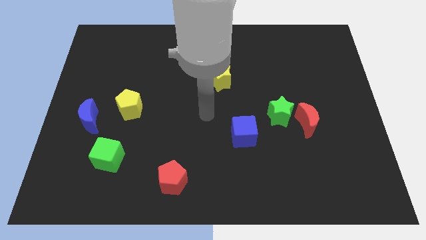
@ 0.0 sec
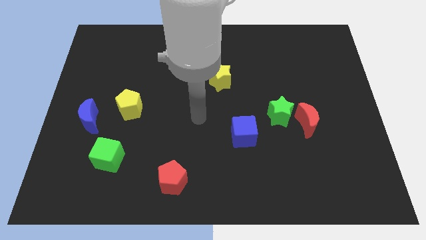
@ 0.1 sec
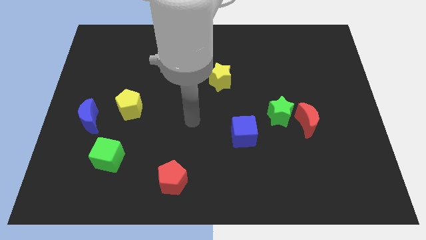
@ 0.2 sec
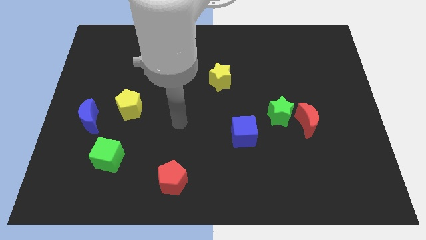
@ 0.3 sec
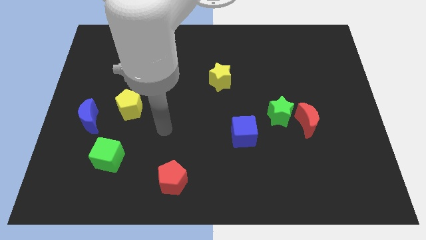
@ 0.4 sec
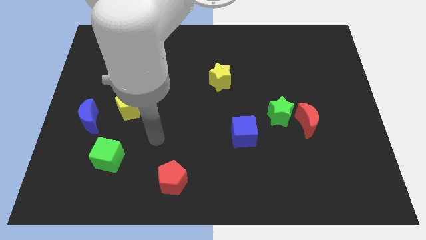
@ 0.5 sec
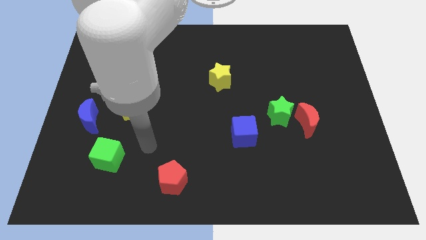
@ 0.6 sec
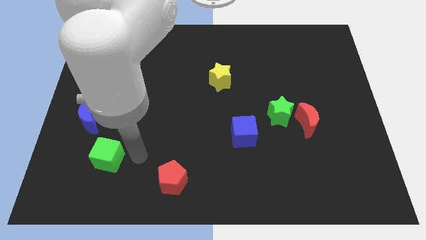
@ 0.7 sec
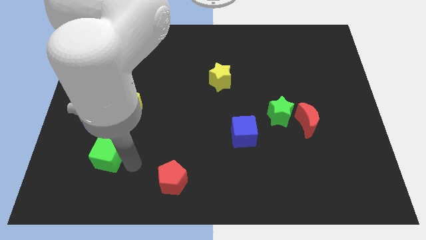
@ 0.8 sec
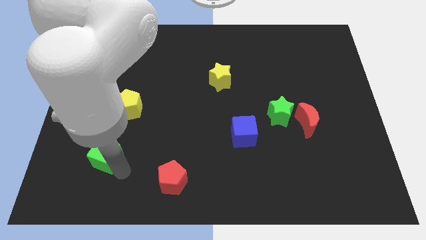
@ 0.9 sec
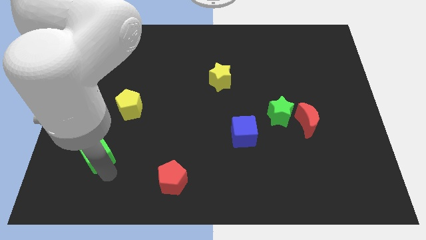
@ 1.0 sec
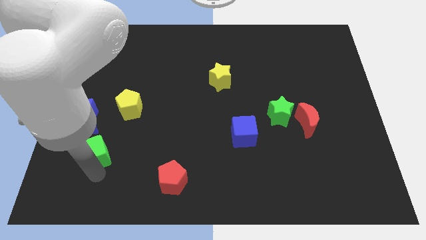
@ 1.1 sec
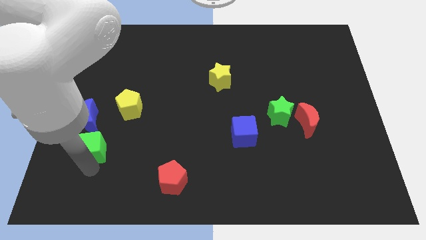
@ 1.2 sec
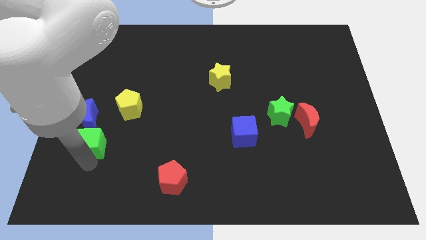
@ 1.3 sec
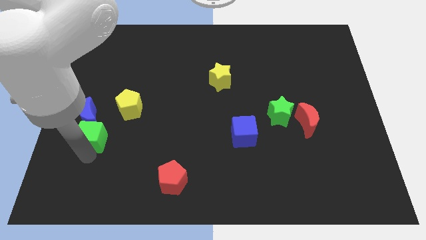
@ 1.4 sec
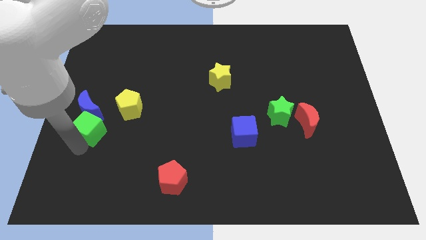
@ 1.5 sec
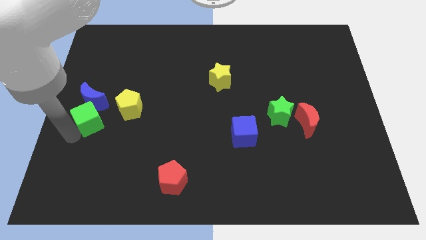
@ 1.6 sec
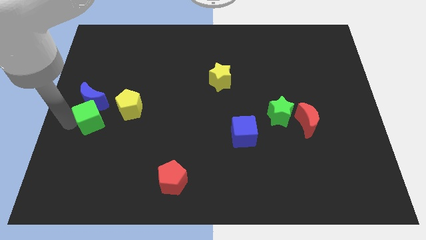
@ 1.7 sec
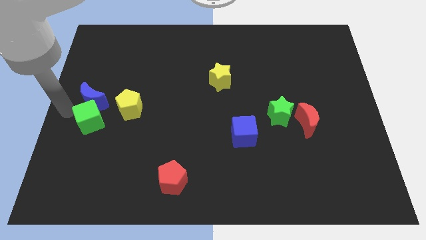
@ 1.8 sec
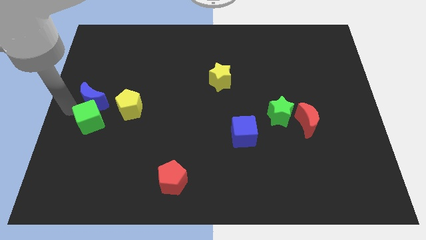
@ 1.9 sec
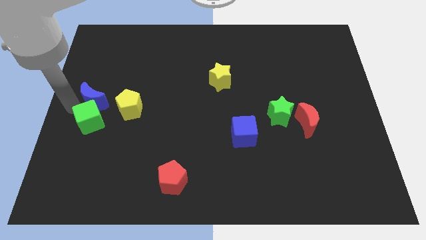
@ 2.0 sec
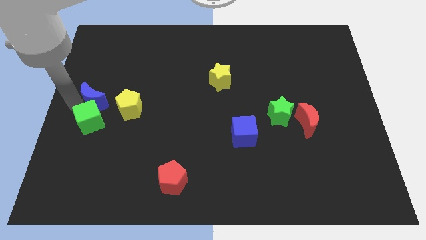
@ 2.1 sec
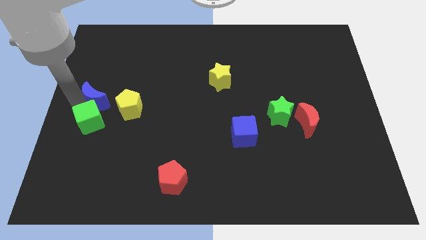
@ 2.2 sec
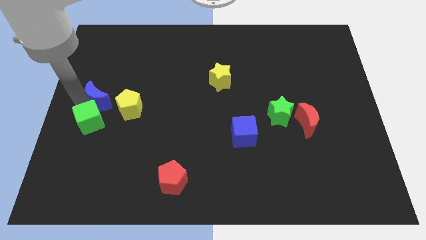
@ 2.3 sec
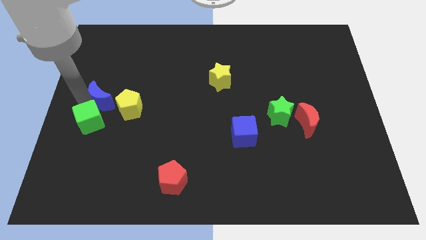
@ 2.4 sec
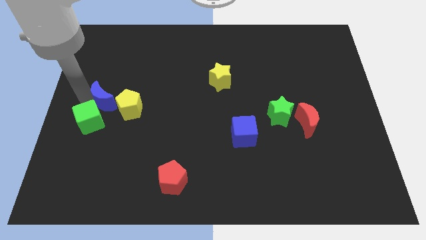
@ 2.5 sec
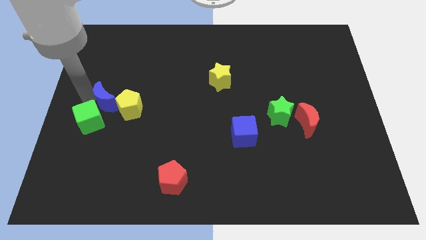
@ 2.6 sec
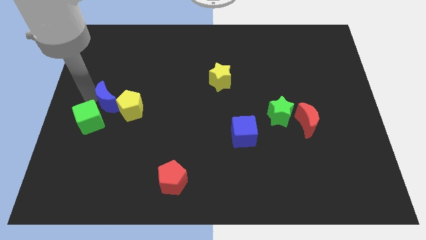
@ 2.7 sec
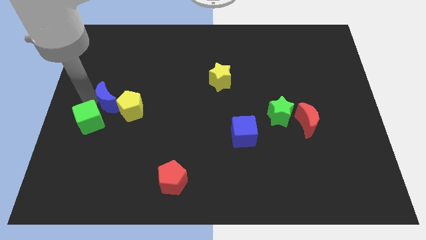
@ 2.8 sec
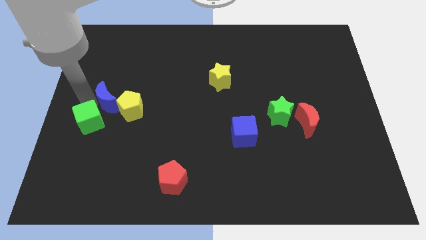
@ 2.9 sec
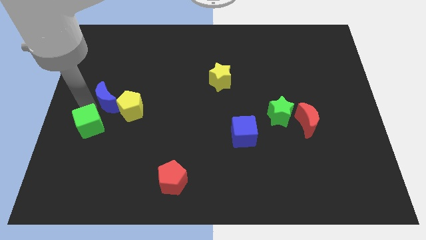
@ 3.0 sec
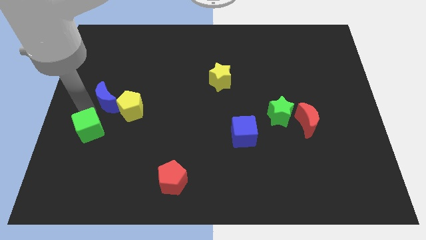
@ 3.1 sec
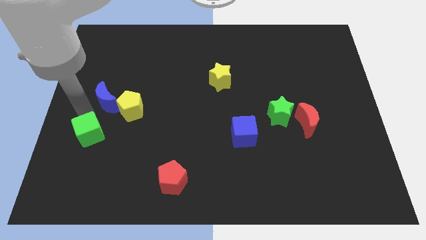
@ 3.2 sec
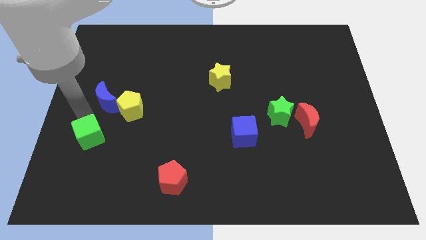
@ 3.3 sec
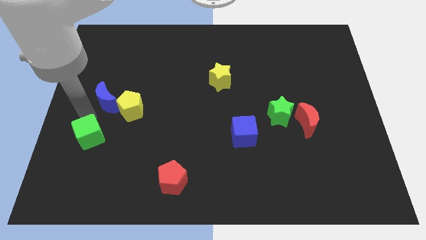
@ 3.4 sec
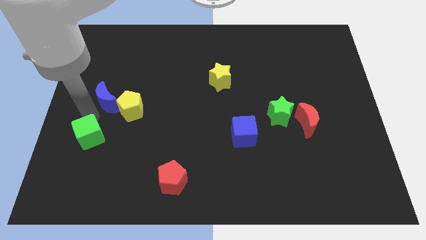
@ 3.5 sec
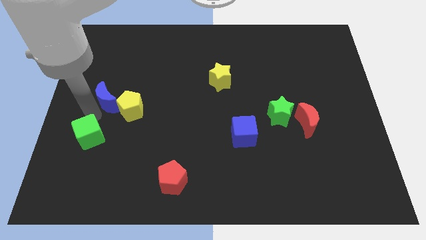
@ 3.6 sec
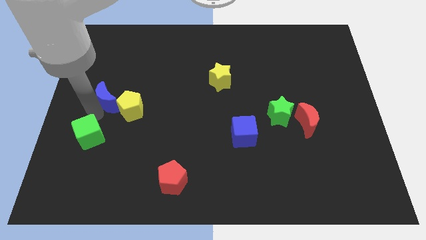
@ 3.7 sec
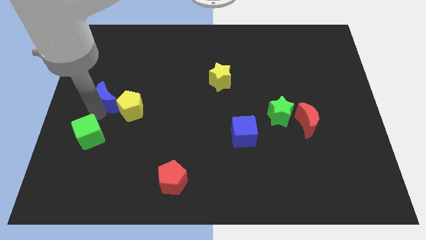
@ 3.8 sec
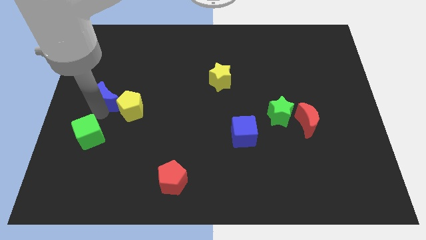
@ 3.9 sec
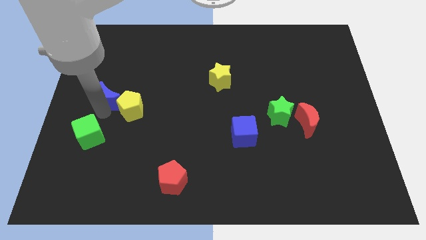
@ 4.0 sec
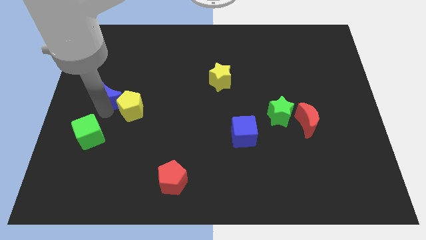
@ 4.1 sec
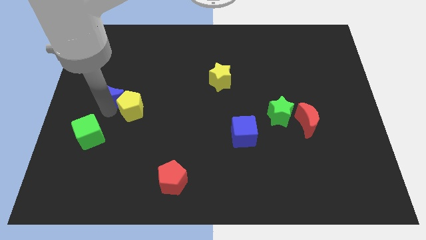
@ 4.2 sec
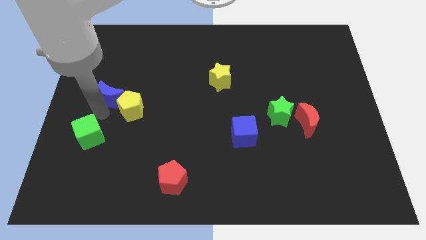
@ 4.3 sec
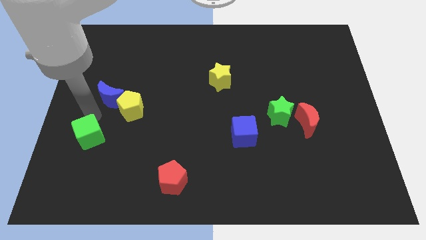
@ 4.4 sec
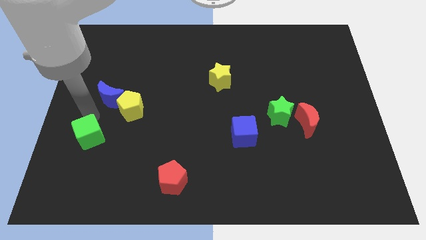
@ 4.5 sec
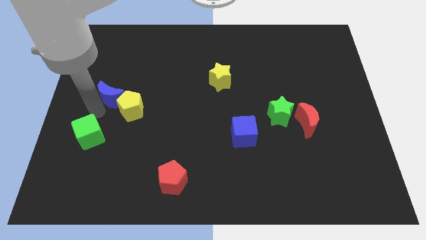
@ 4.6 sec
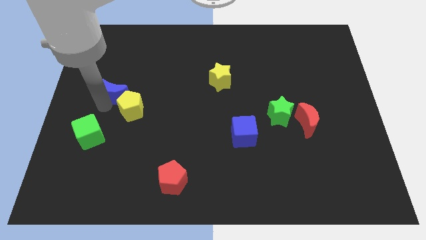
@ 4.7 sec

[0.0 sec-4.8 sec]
move the blue moon to the top side of the yellow pentagon

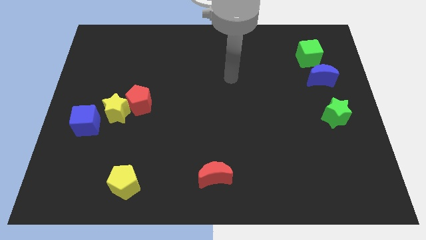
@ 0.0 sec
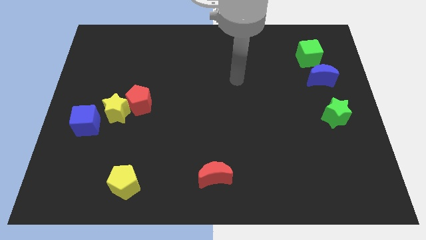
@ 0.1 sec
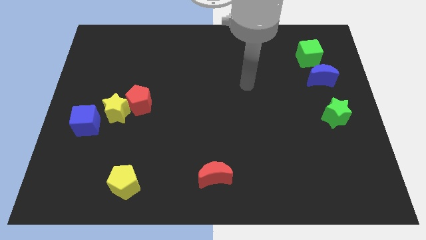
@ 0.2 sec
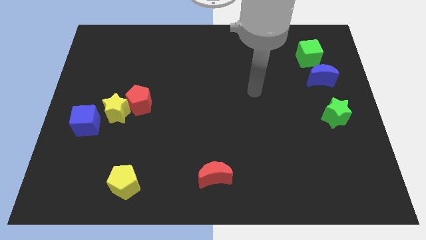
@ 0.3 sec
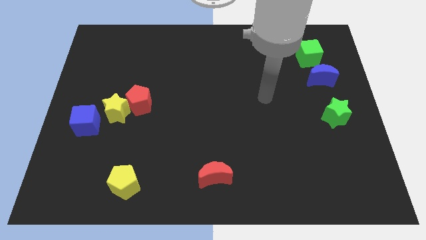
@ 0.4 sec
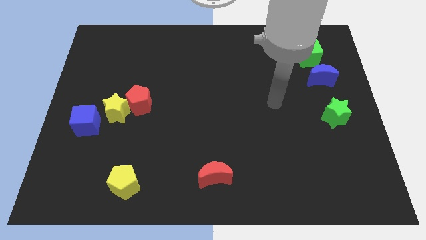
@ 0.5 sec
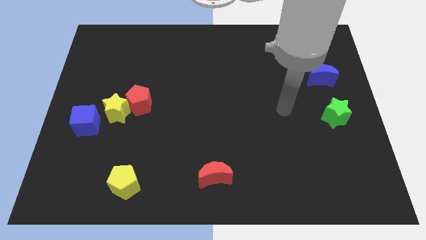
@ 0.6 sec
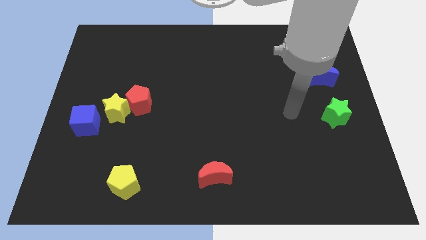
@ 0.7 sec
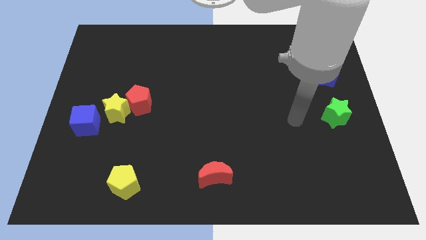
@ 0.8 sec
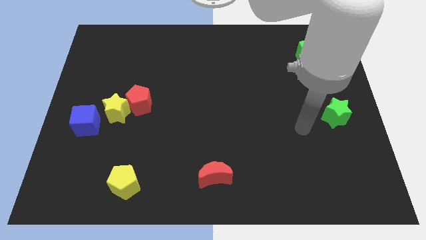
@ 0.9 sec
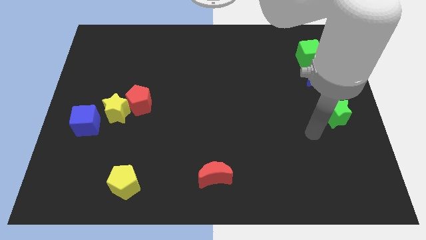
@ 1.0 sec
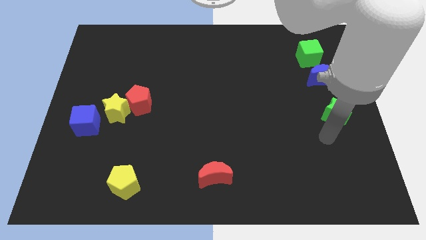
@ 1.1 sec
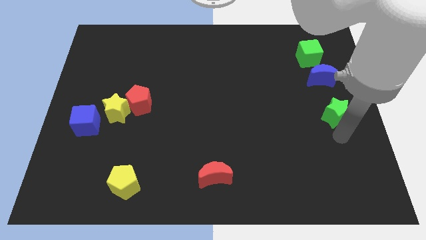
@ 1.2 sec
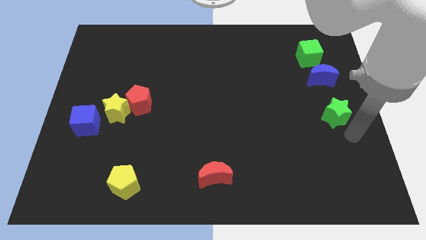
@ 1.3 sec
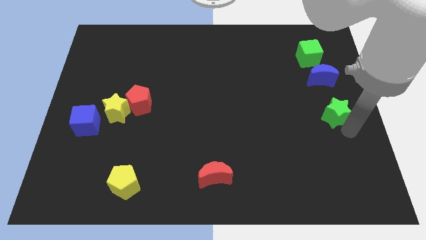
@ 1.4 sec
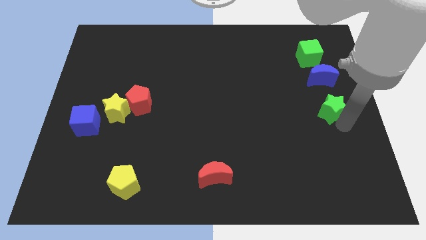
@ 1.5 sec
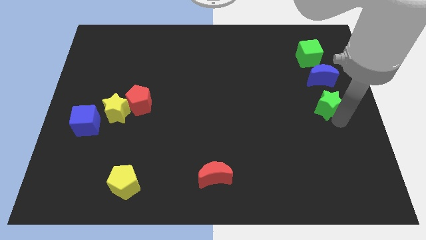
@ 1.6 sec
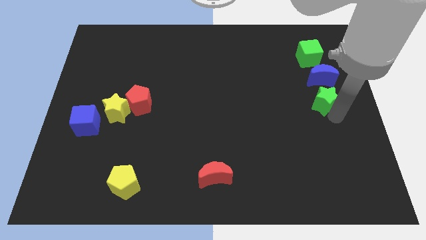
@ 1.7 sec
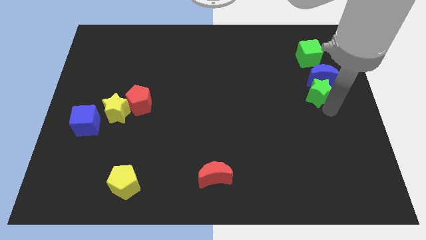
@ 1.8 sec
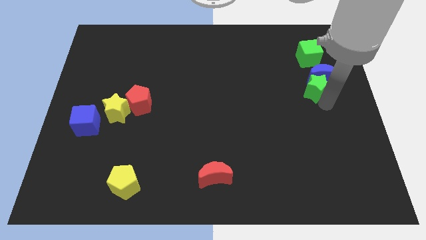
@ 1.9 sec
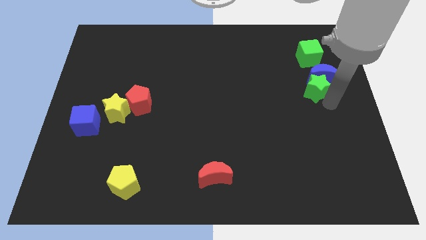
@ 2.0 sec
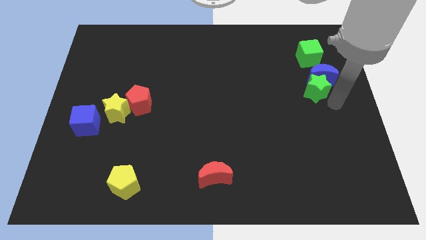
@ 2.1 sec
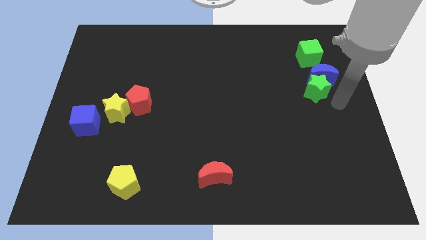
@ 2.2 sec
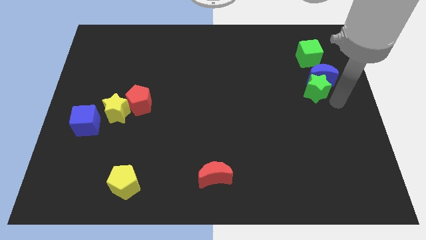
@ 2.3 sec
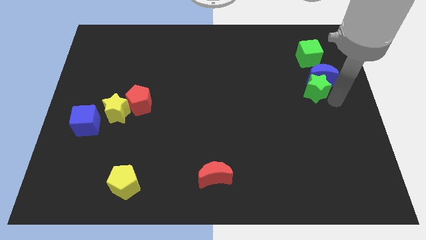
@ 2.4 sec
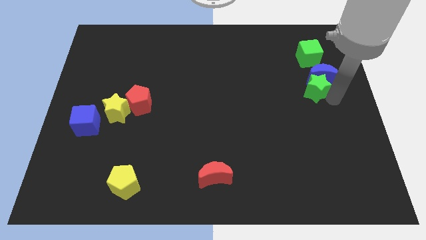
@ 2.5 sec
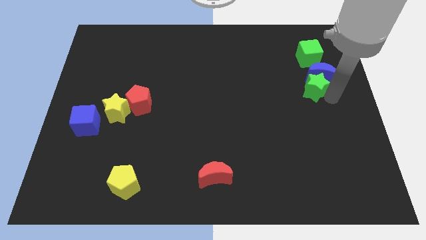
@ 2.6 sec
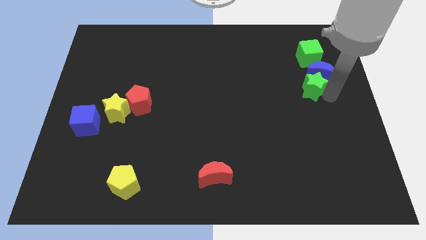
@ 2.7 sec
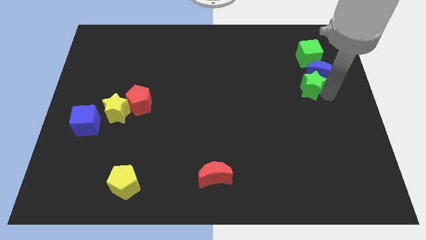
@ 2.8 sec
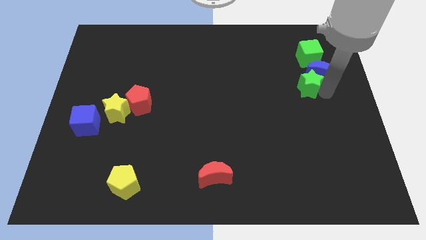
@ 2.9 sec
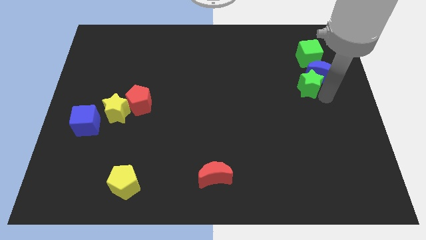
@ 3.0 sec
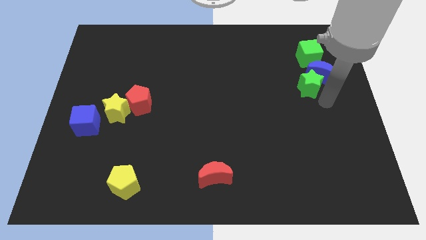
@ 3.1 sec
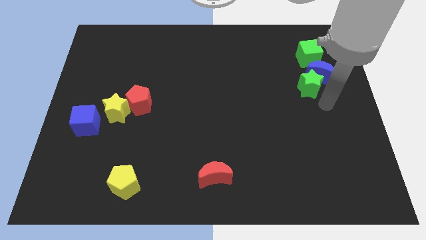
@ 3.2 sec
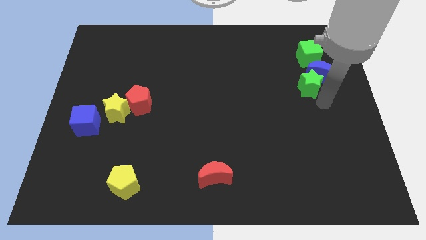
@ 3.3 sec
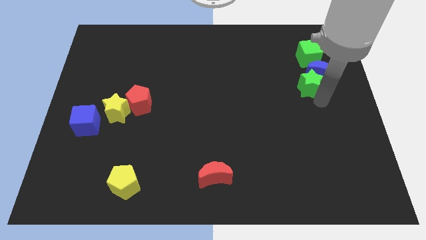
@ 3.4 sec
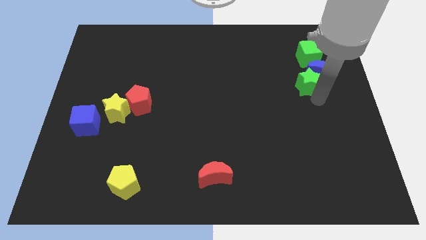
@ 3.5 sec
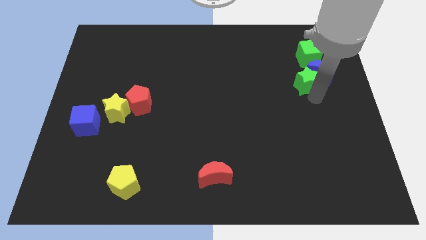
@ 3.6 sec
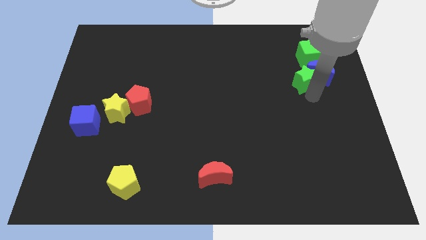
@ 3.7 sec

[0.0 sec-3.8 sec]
put the green star diagonally down and to the left of the green cube
